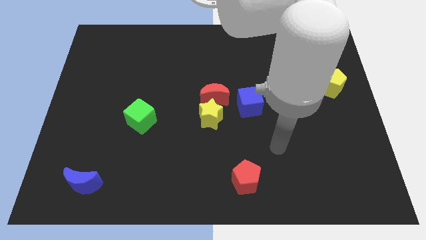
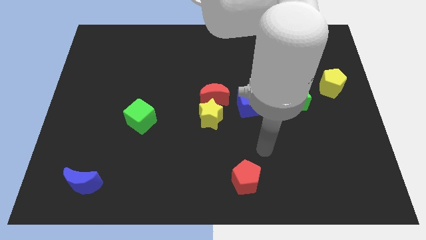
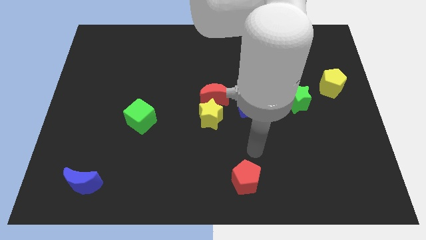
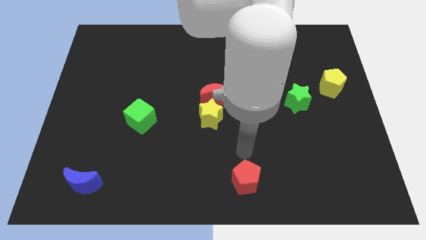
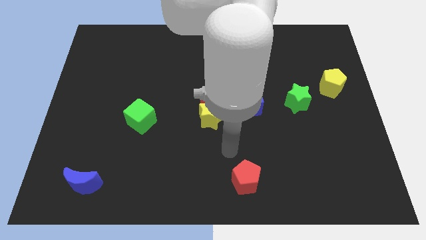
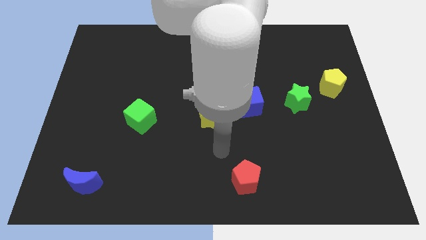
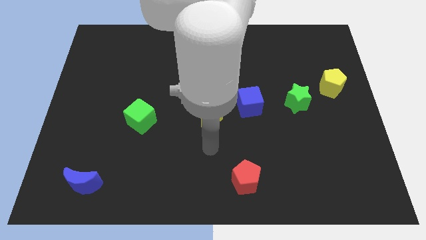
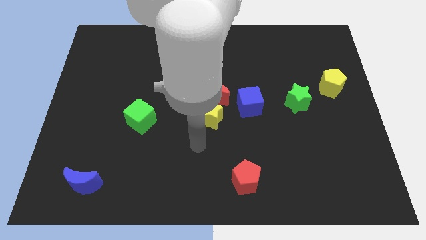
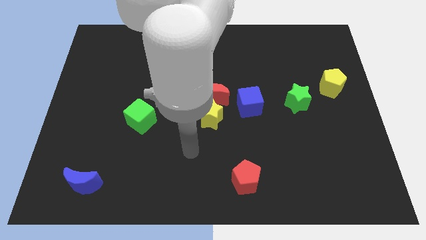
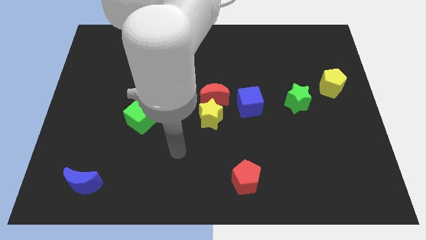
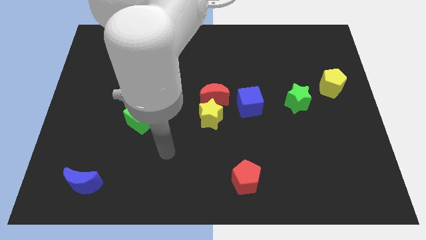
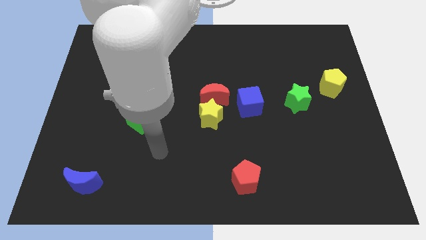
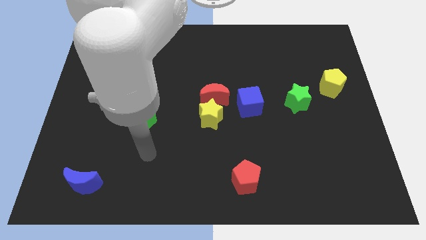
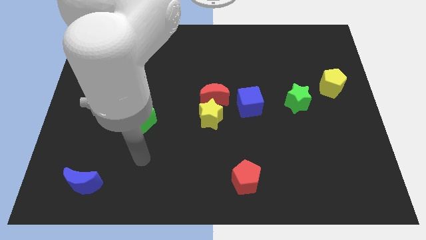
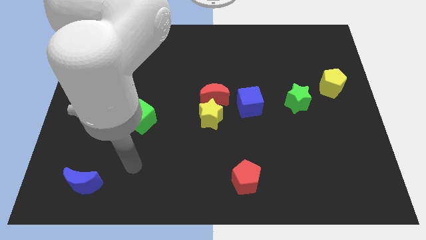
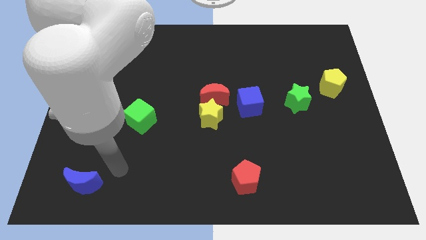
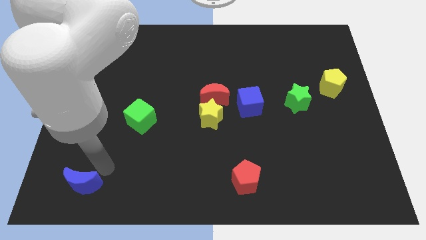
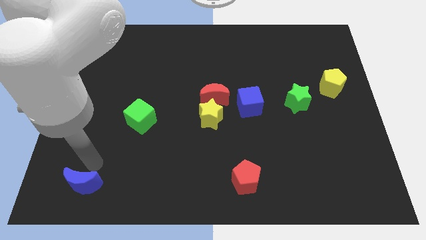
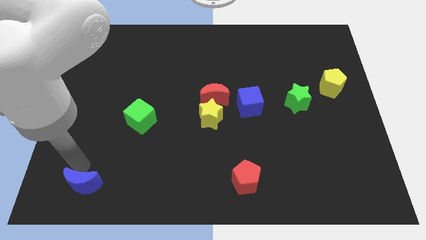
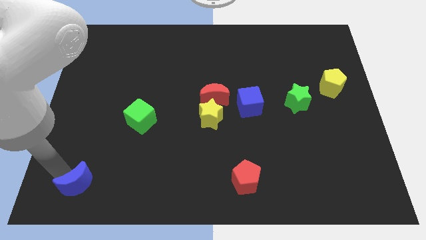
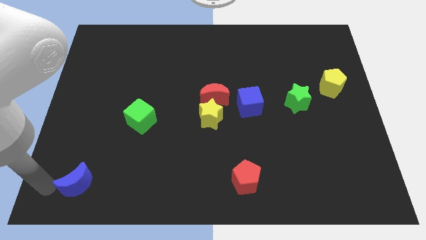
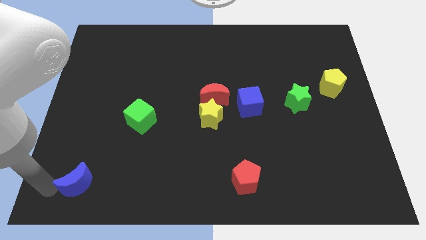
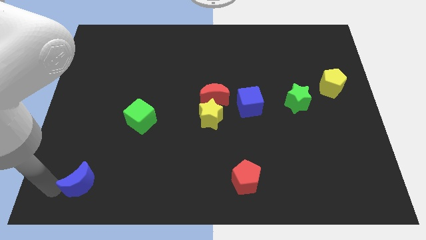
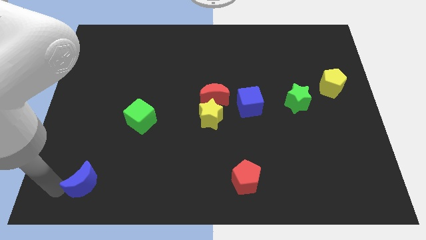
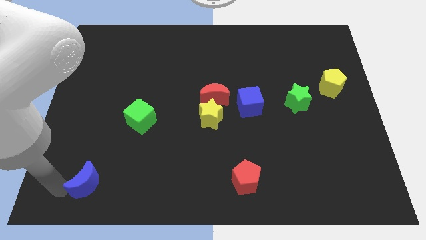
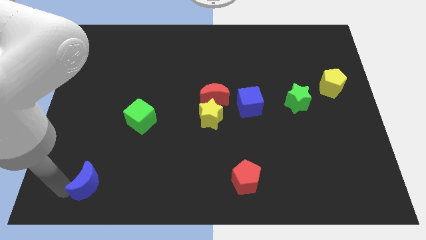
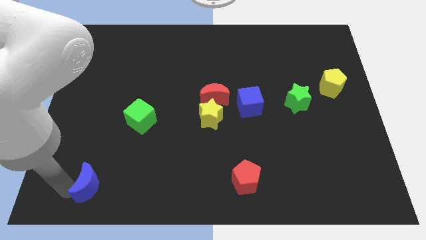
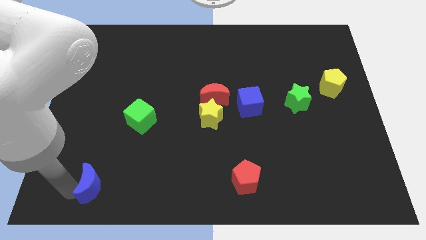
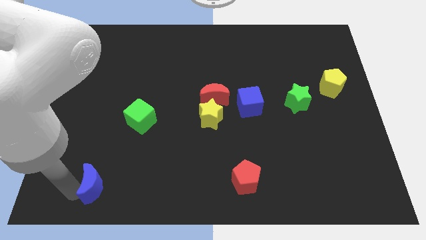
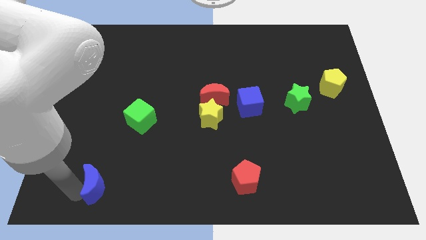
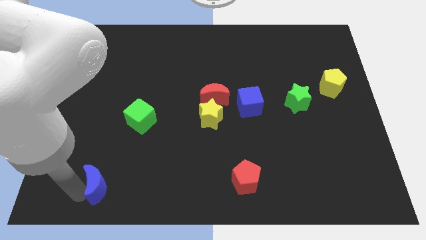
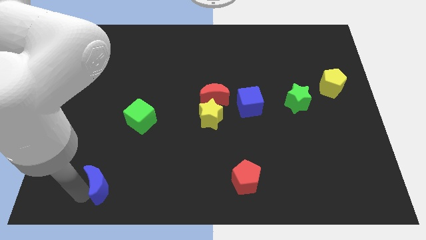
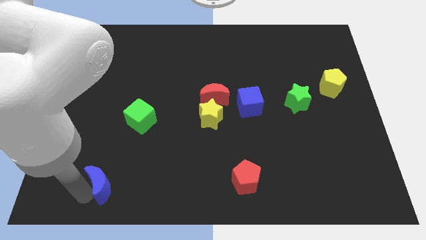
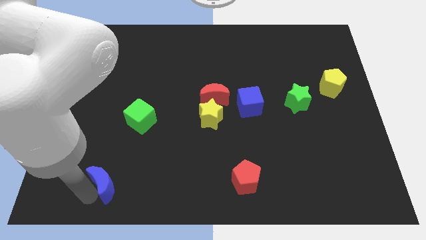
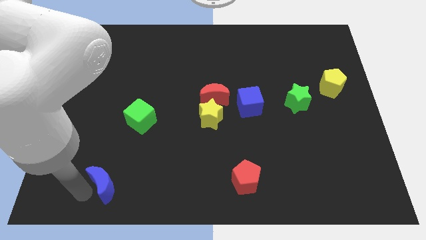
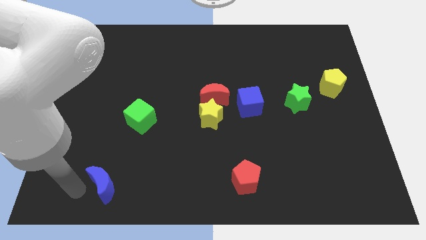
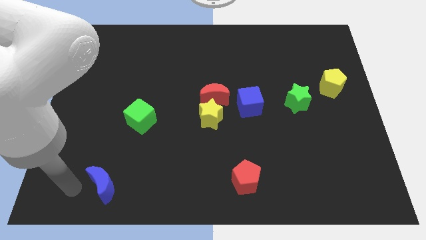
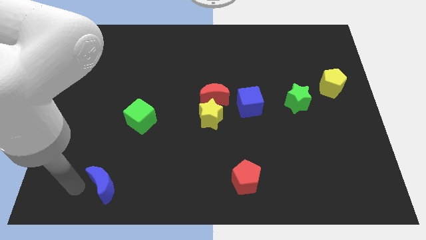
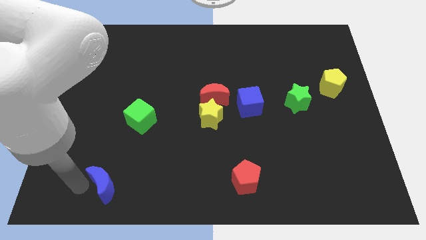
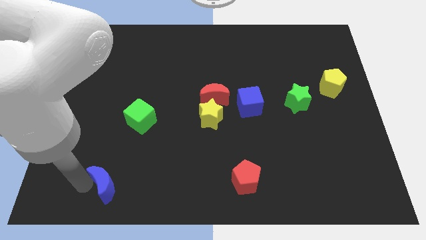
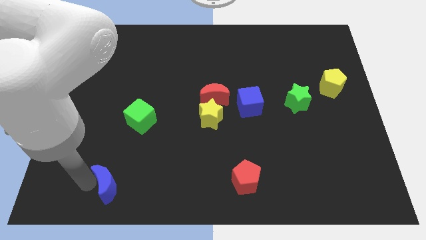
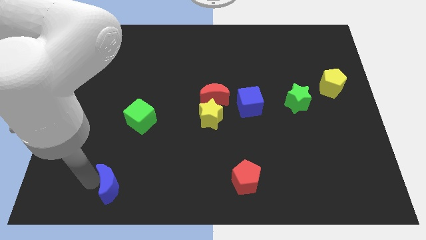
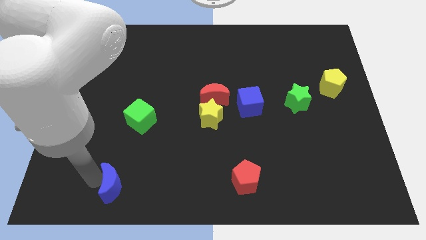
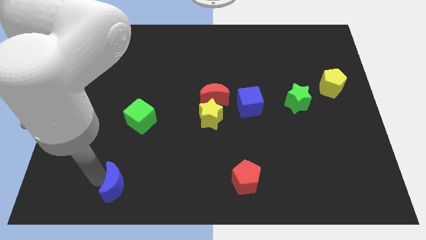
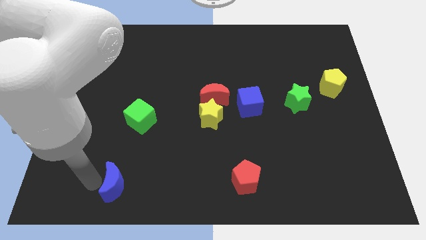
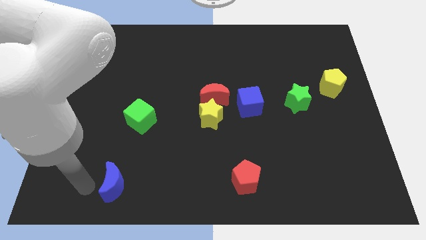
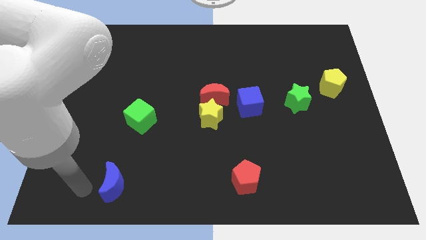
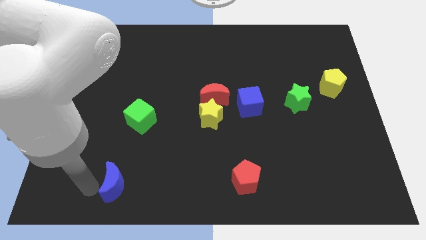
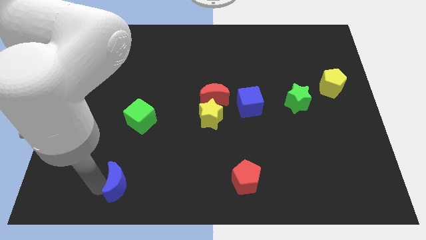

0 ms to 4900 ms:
push the blue moon a little right

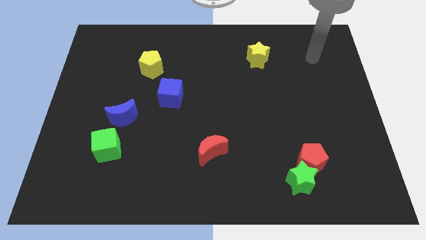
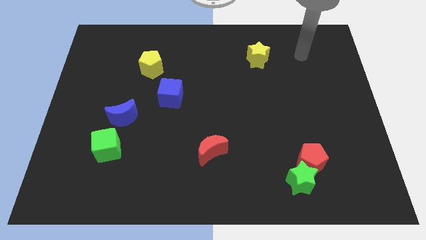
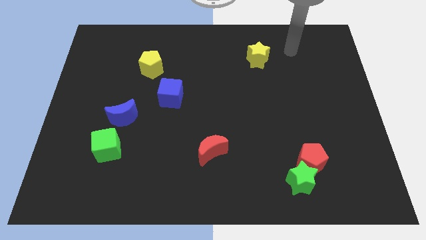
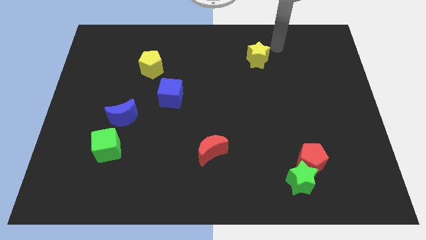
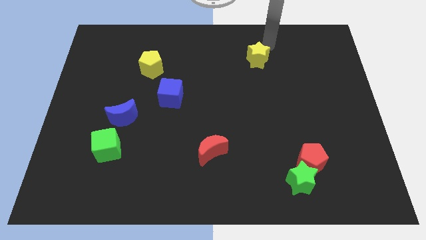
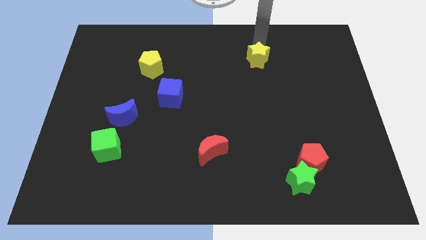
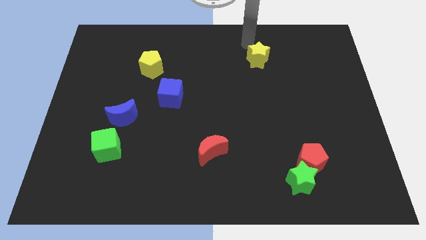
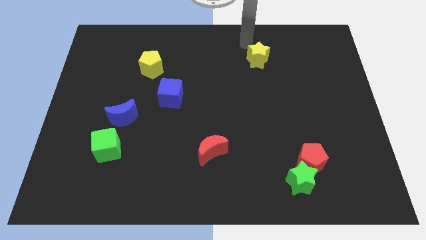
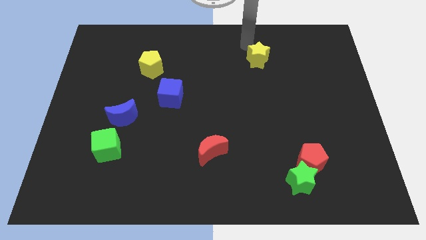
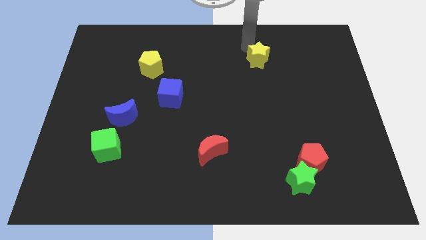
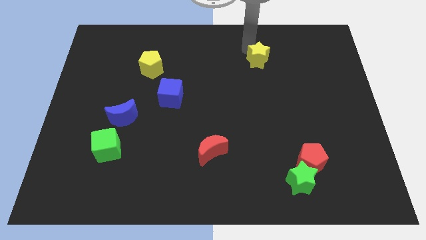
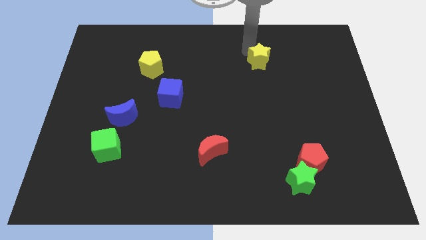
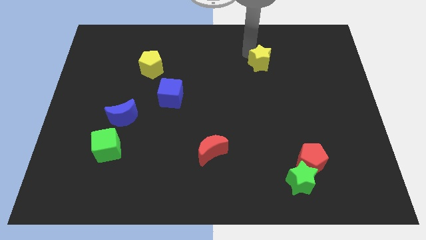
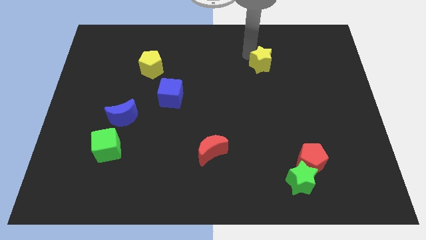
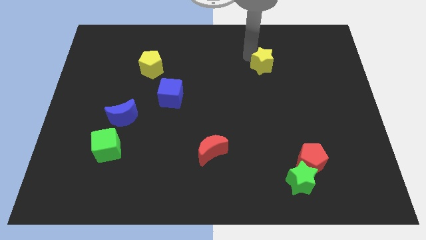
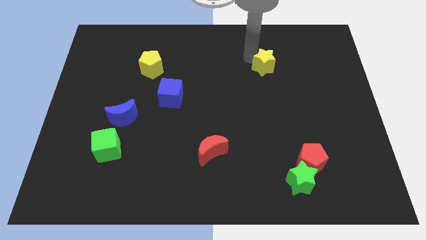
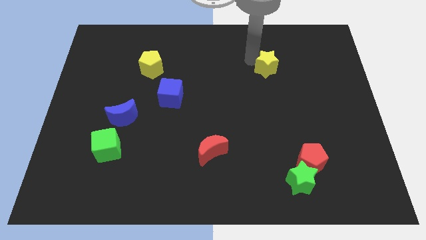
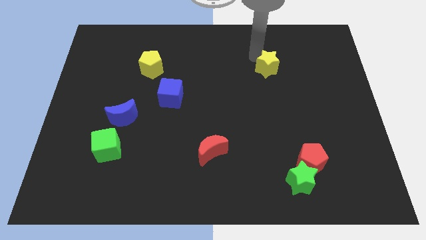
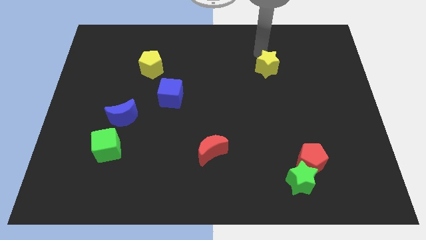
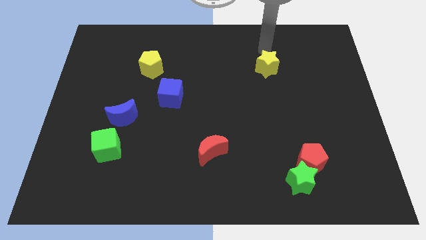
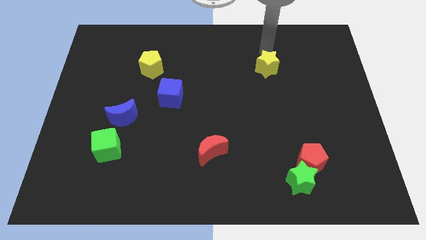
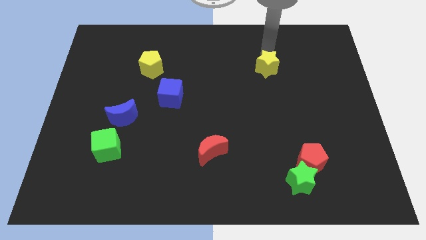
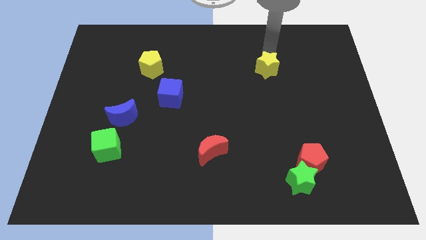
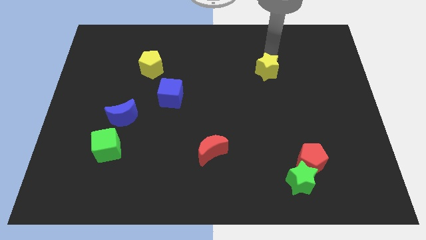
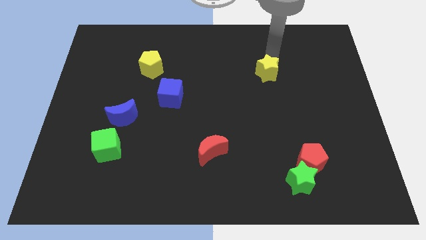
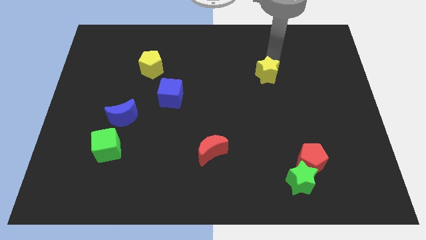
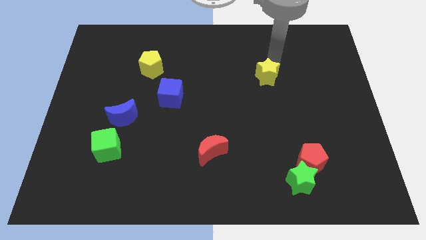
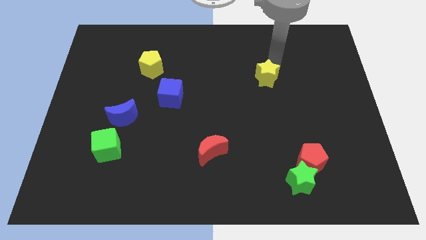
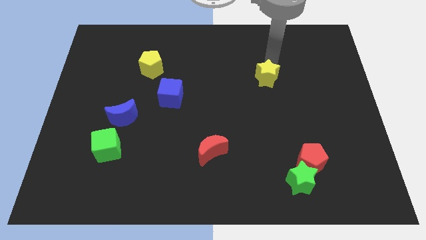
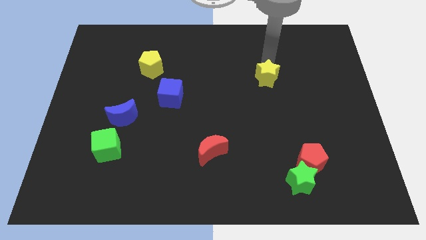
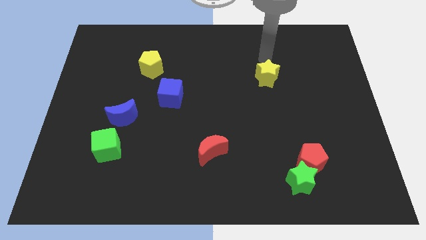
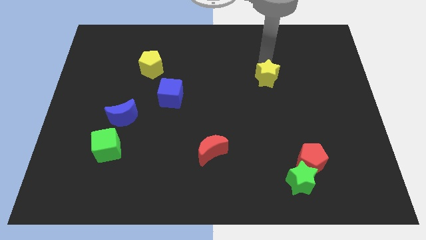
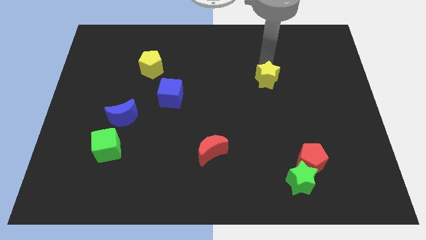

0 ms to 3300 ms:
push the yellow star a little down
